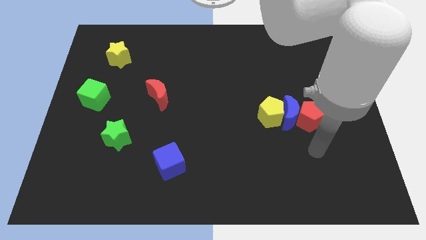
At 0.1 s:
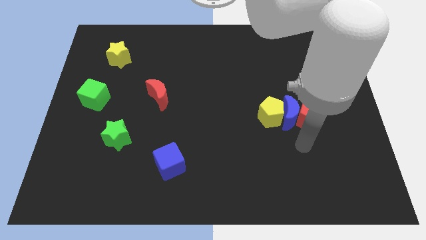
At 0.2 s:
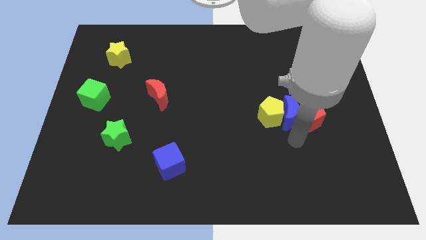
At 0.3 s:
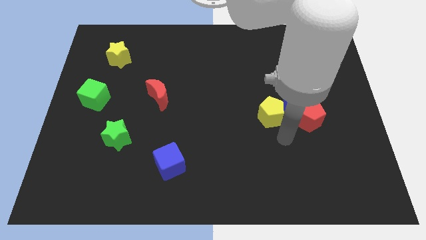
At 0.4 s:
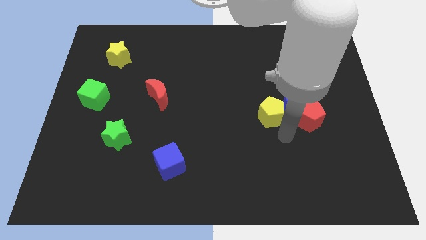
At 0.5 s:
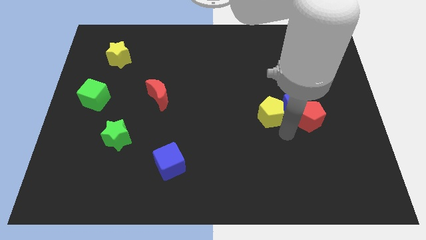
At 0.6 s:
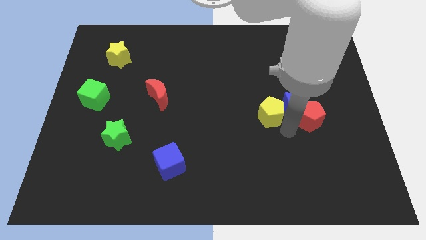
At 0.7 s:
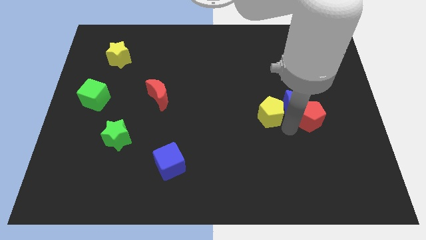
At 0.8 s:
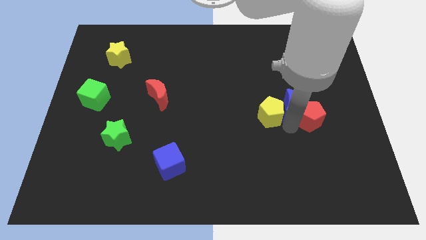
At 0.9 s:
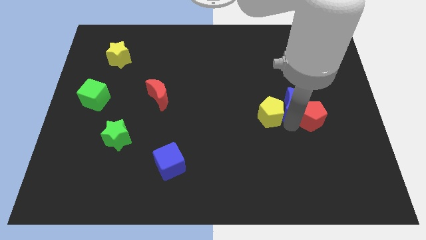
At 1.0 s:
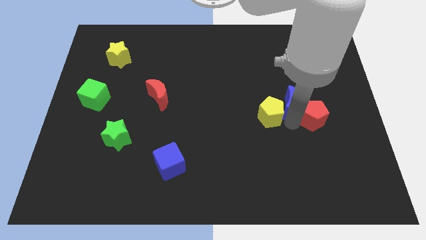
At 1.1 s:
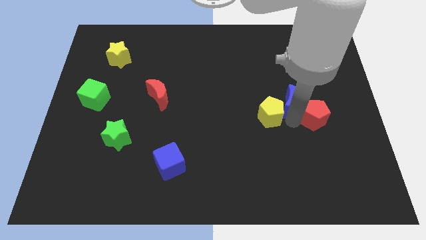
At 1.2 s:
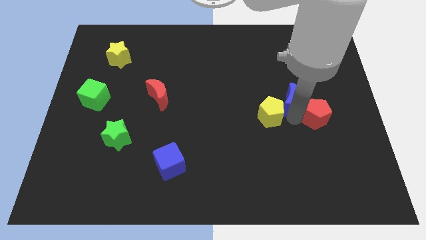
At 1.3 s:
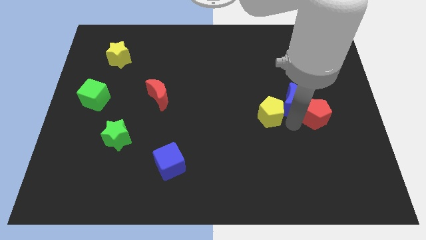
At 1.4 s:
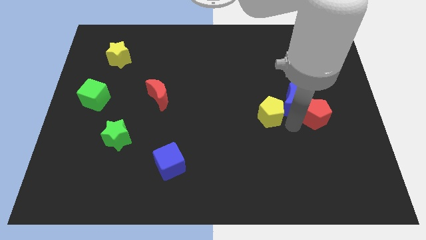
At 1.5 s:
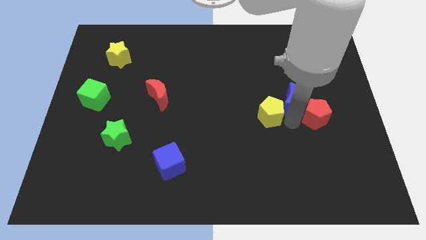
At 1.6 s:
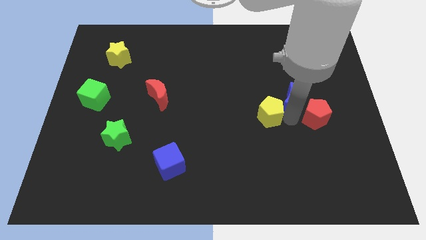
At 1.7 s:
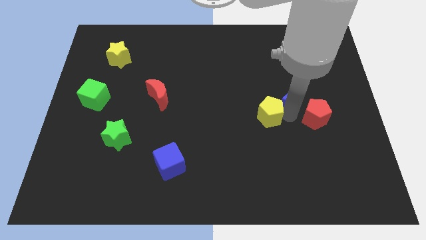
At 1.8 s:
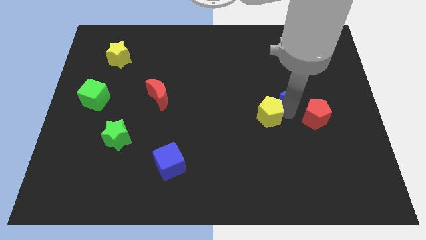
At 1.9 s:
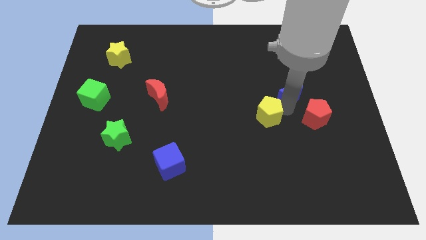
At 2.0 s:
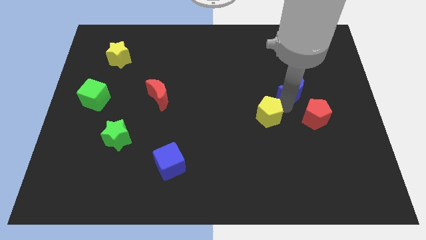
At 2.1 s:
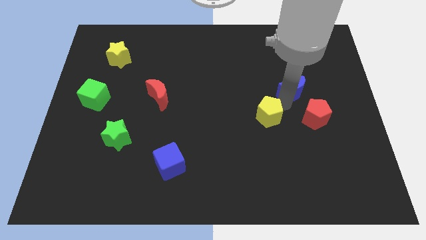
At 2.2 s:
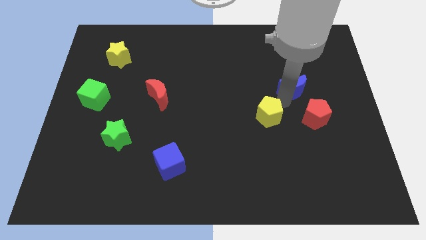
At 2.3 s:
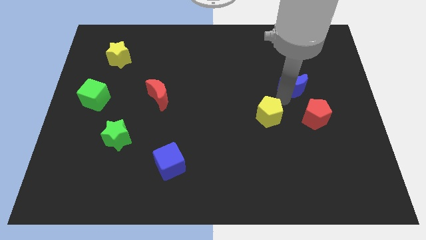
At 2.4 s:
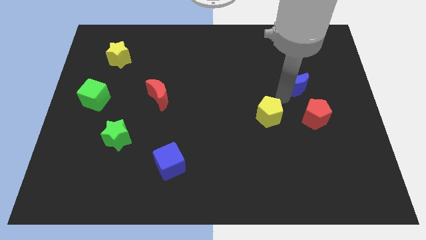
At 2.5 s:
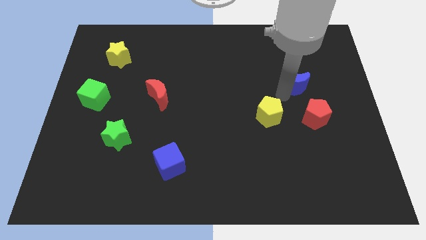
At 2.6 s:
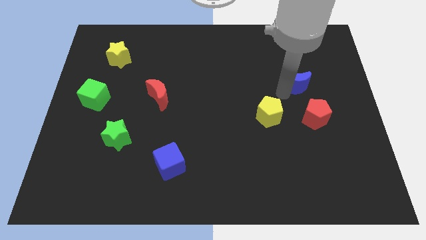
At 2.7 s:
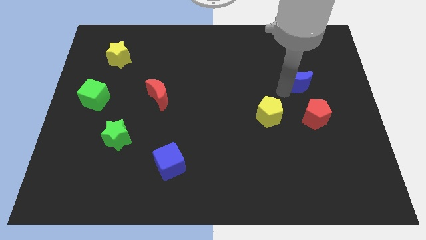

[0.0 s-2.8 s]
move the blue moon away from the red pentagon and yellow pentagon

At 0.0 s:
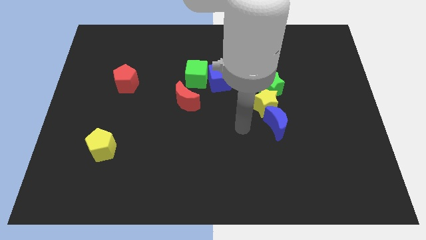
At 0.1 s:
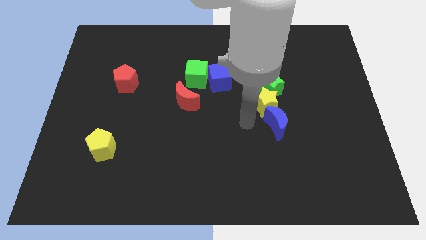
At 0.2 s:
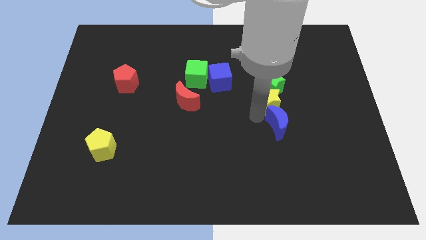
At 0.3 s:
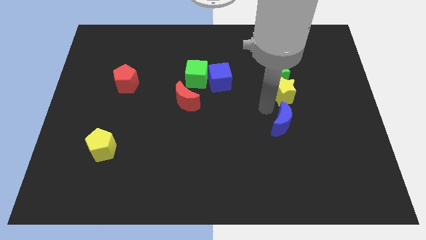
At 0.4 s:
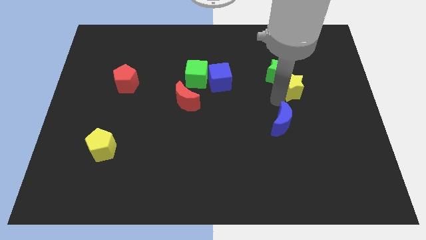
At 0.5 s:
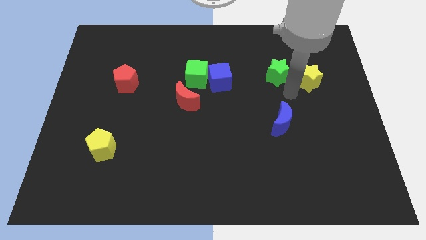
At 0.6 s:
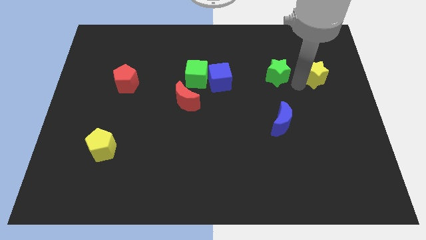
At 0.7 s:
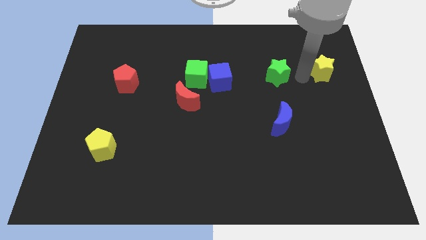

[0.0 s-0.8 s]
separate the green star from the yellow star

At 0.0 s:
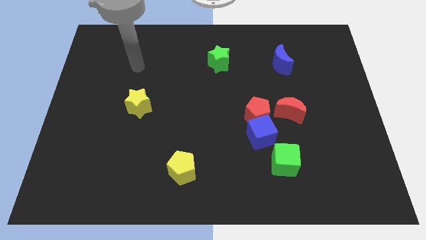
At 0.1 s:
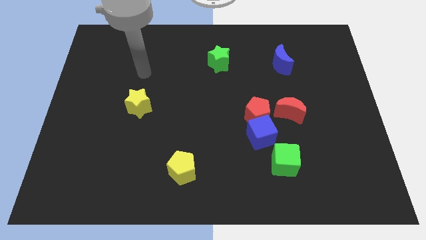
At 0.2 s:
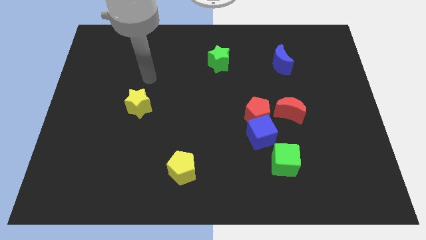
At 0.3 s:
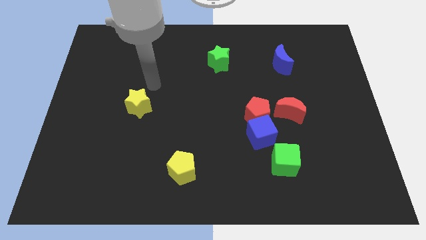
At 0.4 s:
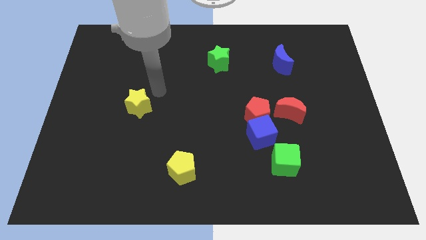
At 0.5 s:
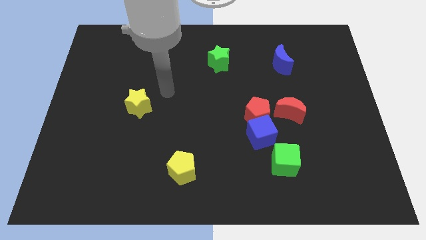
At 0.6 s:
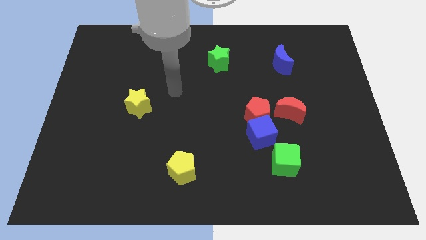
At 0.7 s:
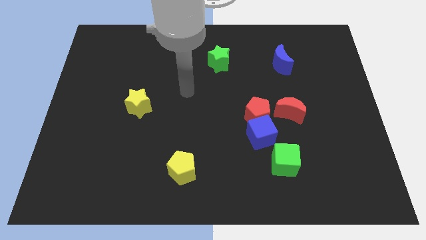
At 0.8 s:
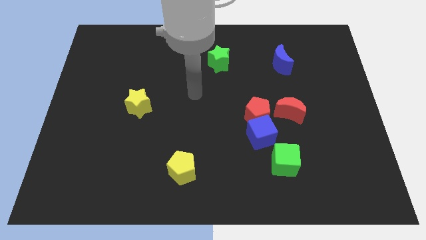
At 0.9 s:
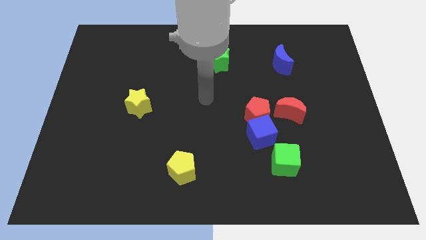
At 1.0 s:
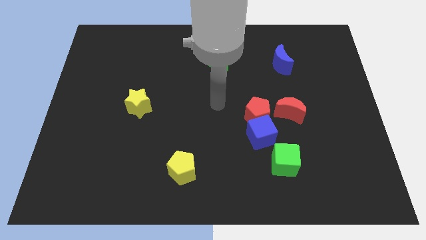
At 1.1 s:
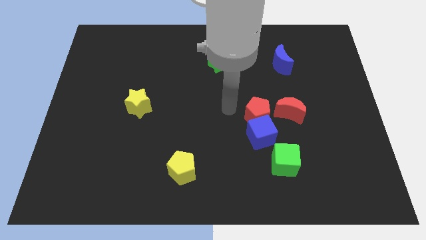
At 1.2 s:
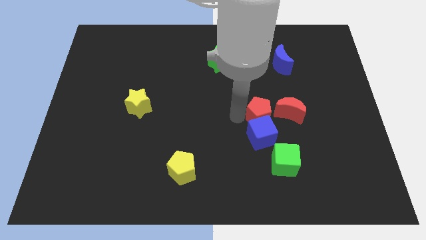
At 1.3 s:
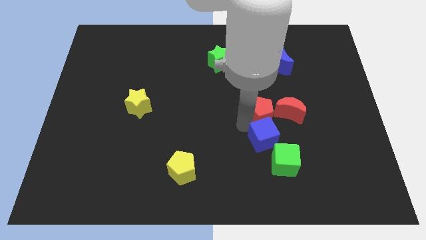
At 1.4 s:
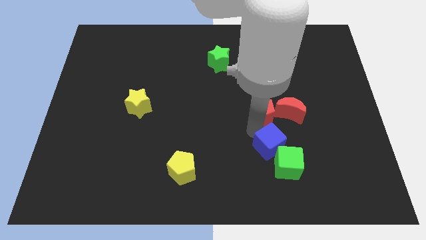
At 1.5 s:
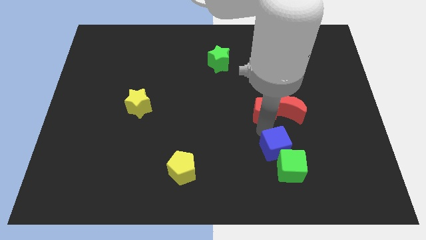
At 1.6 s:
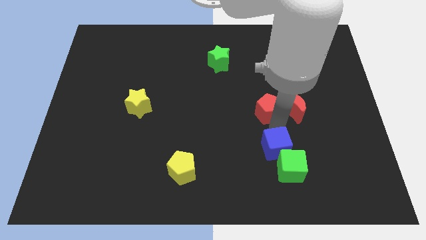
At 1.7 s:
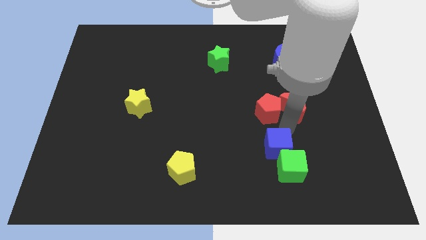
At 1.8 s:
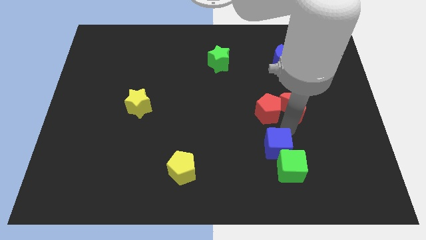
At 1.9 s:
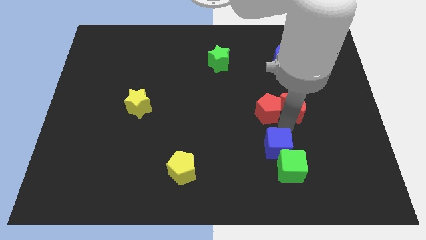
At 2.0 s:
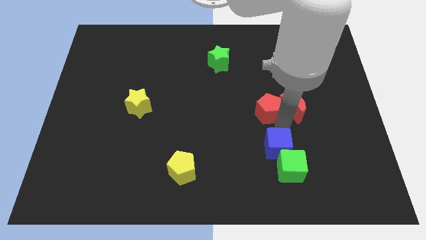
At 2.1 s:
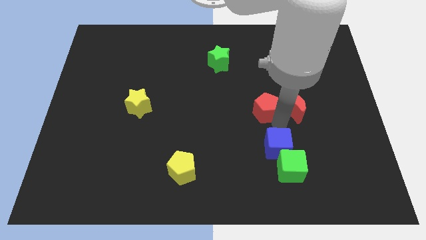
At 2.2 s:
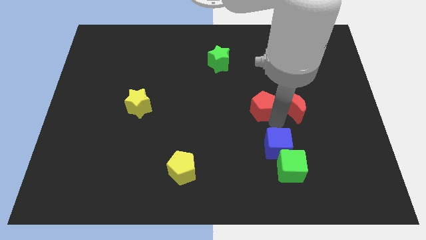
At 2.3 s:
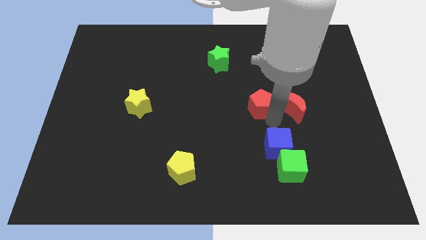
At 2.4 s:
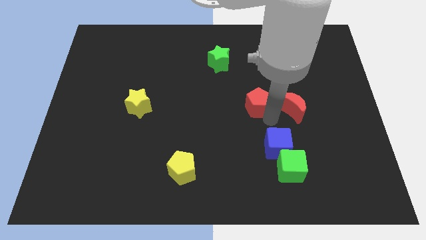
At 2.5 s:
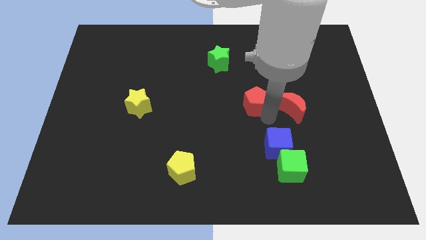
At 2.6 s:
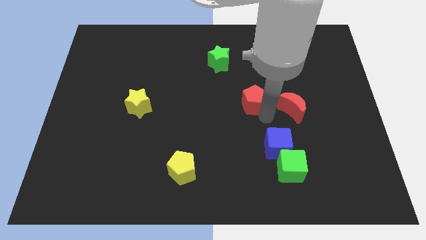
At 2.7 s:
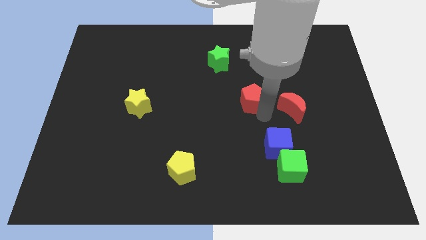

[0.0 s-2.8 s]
pull the red pentagon apart from the blue cube and red moon

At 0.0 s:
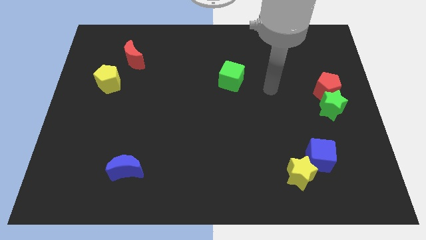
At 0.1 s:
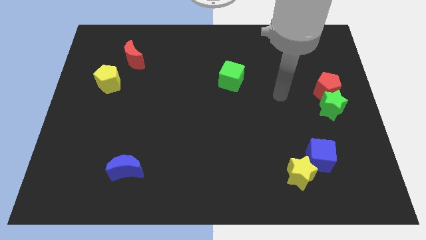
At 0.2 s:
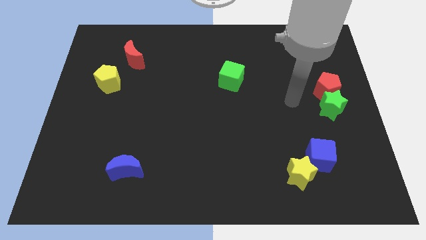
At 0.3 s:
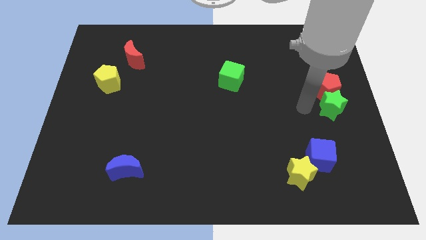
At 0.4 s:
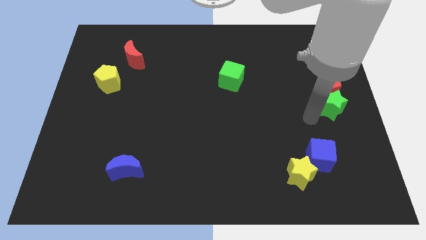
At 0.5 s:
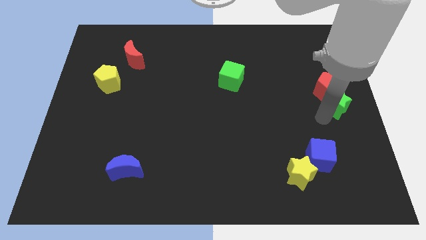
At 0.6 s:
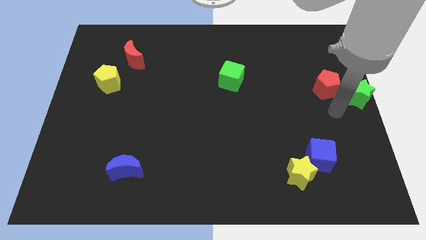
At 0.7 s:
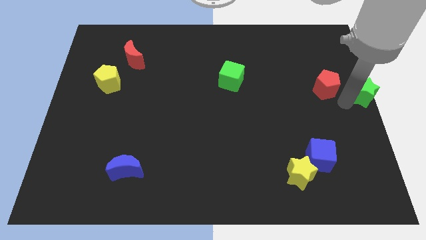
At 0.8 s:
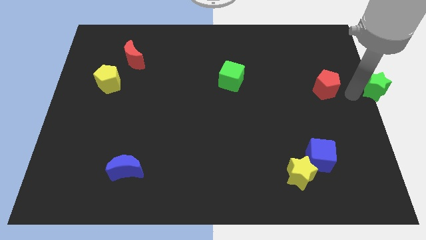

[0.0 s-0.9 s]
separate the red pentagon from the green star

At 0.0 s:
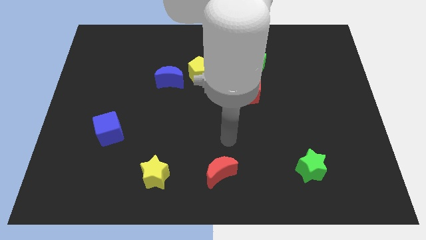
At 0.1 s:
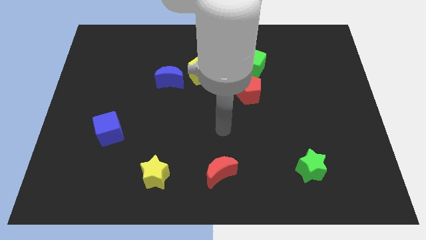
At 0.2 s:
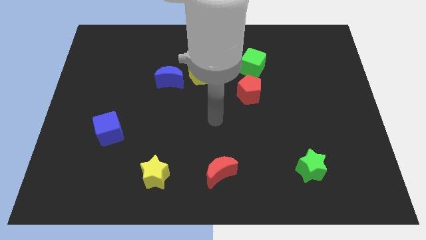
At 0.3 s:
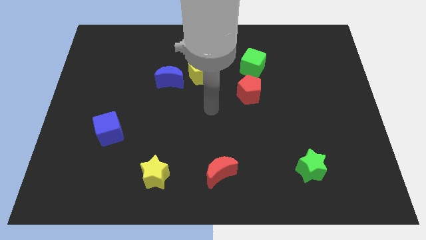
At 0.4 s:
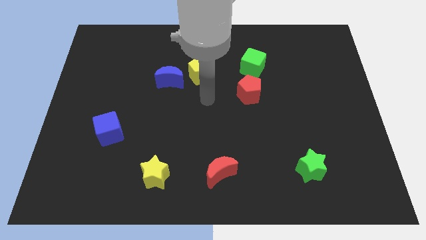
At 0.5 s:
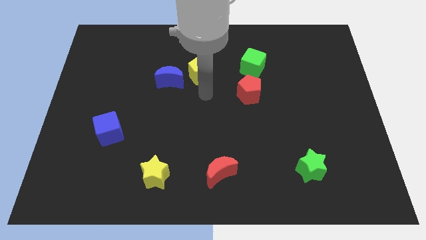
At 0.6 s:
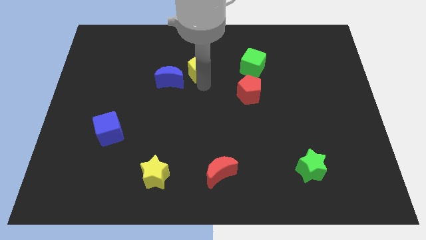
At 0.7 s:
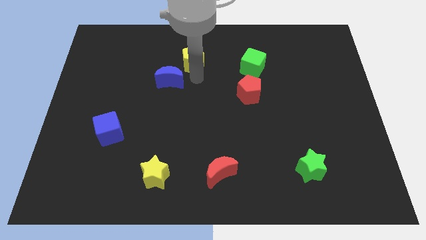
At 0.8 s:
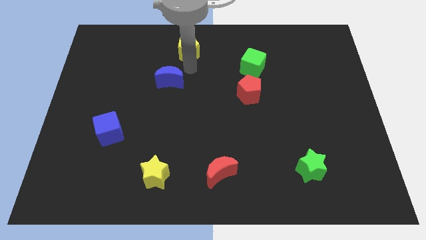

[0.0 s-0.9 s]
pull the blue moon apart from the yellow pentagon

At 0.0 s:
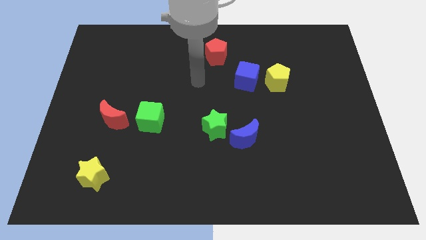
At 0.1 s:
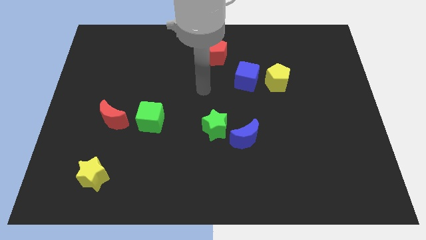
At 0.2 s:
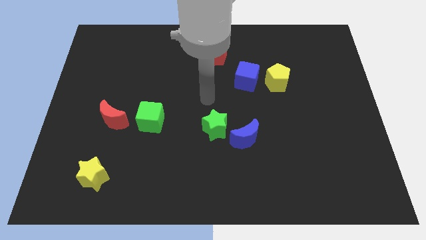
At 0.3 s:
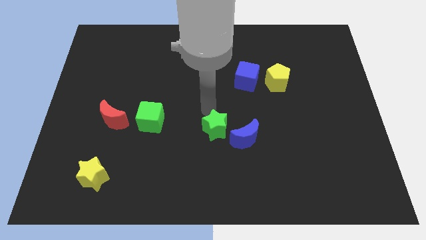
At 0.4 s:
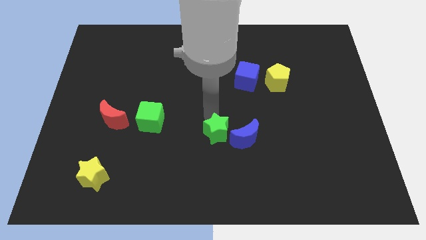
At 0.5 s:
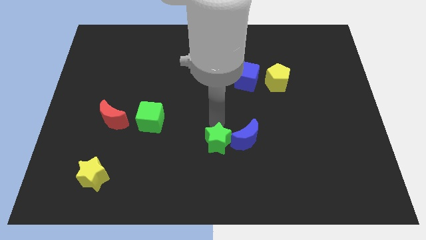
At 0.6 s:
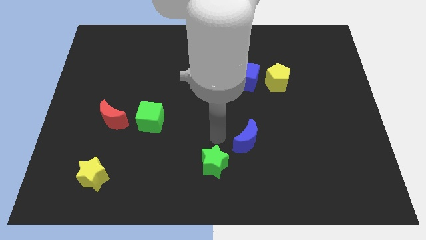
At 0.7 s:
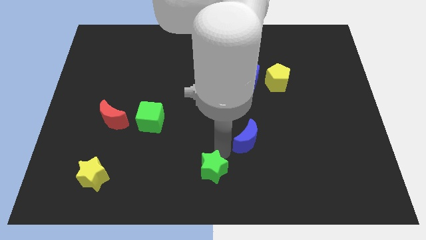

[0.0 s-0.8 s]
separate the blue moon from the green star

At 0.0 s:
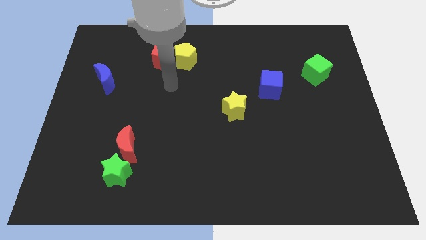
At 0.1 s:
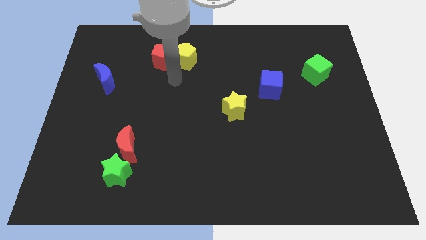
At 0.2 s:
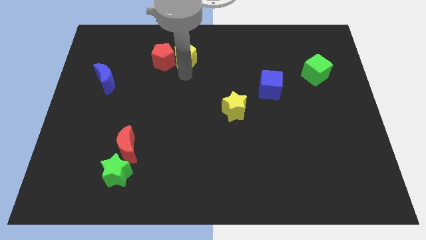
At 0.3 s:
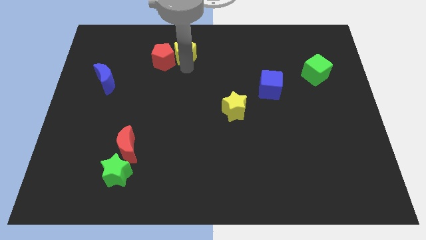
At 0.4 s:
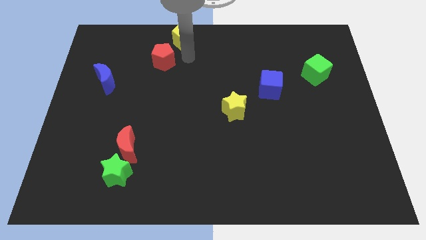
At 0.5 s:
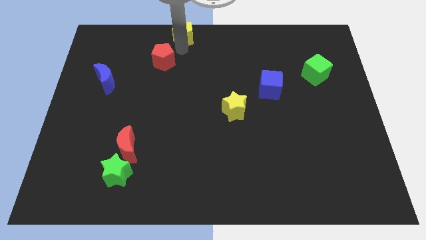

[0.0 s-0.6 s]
separate the red pentagon from the yellow pentagon
